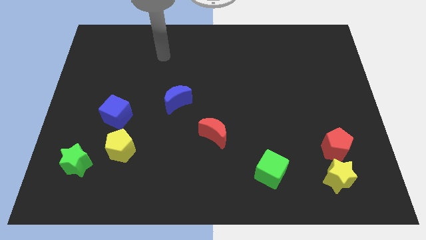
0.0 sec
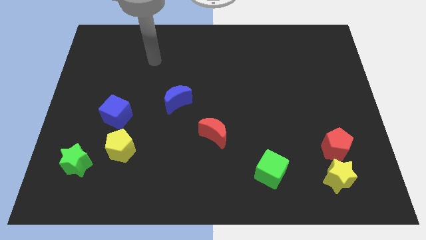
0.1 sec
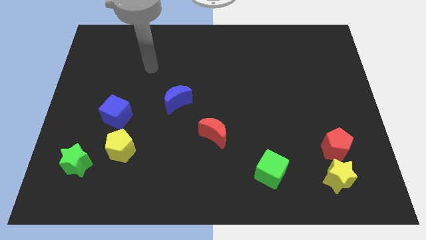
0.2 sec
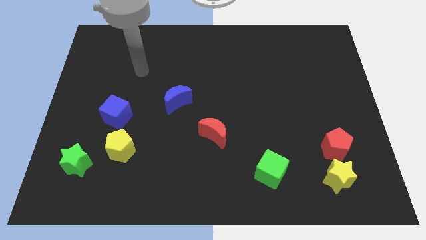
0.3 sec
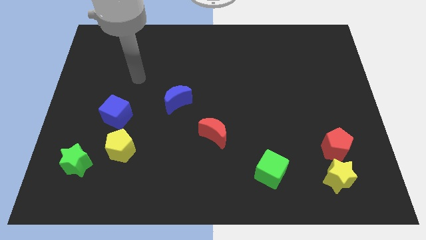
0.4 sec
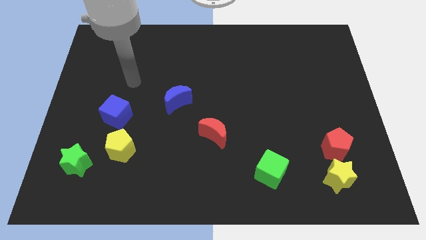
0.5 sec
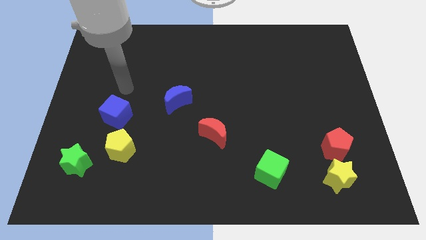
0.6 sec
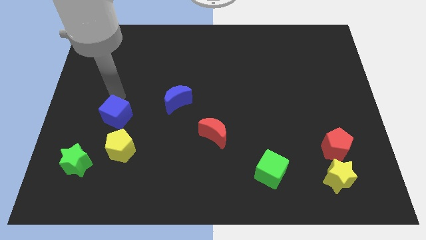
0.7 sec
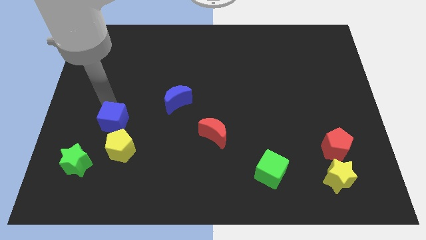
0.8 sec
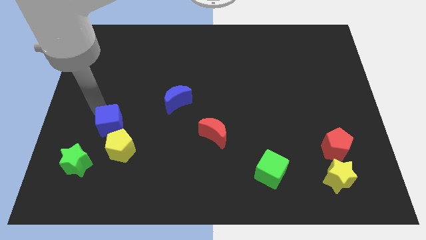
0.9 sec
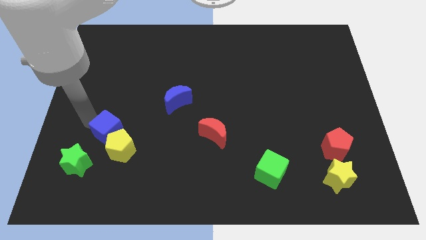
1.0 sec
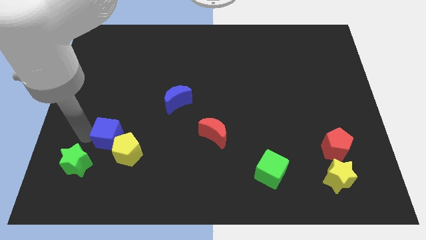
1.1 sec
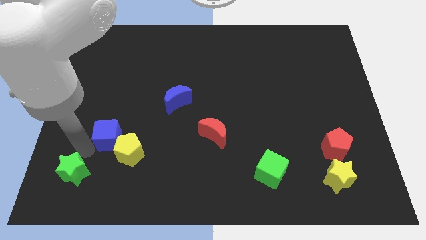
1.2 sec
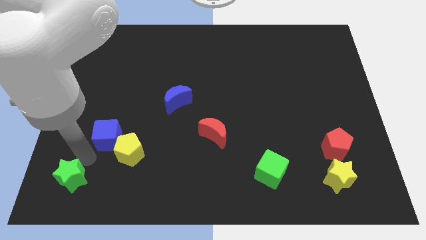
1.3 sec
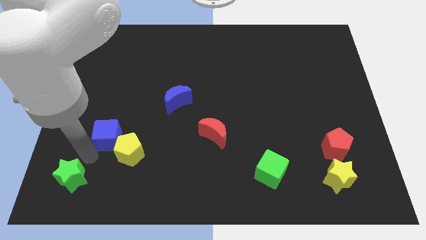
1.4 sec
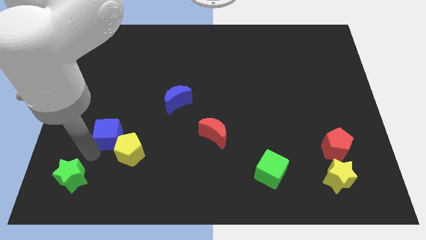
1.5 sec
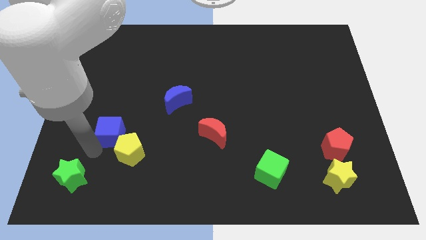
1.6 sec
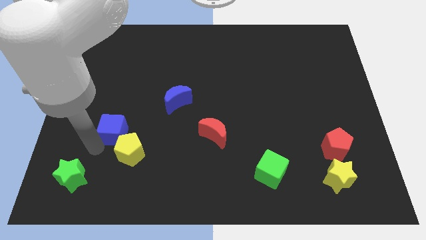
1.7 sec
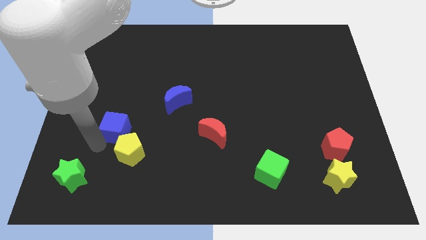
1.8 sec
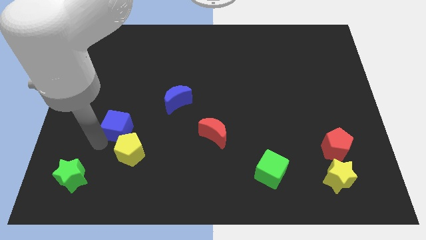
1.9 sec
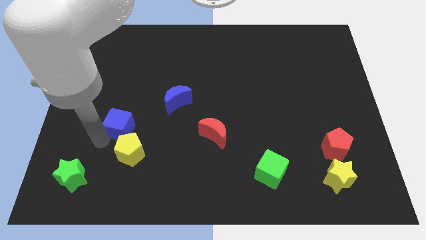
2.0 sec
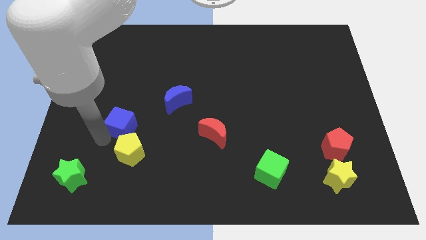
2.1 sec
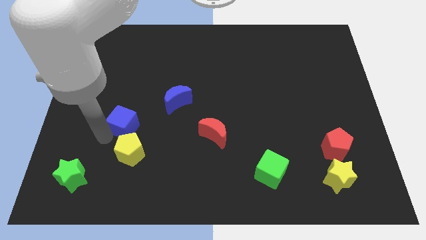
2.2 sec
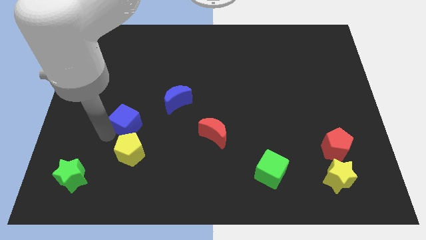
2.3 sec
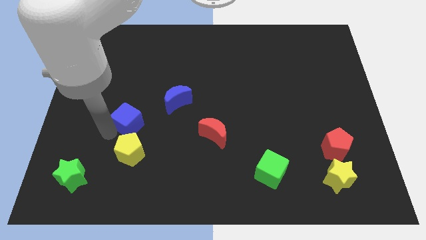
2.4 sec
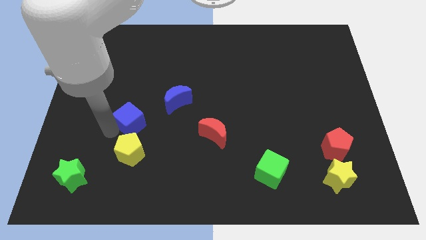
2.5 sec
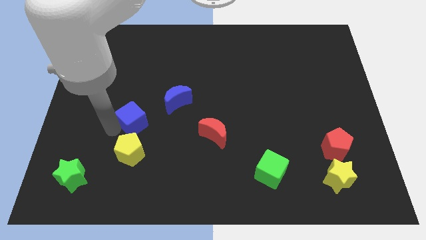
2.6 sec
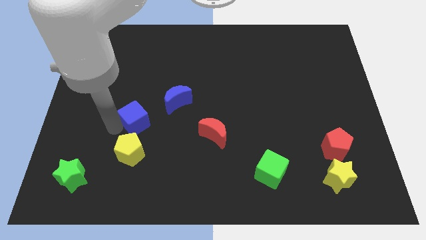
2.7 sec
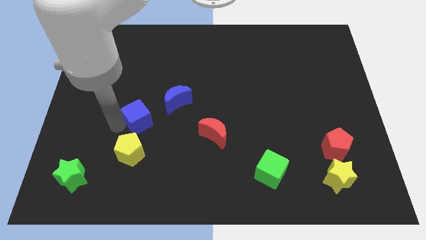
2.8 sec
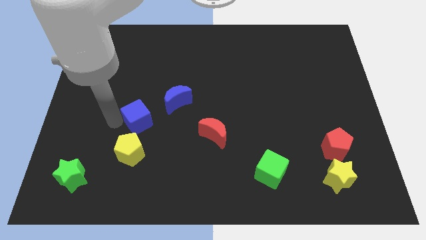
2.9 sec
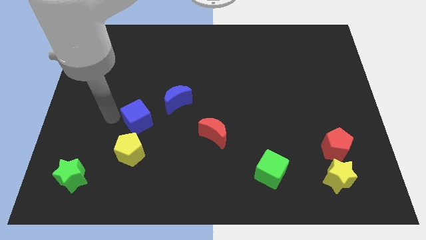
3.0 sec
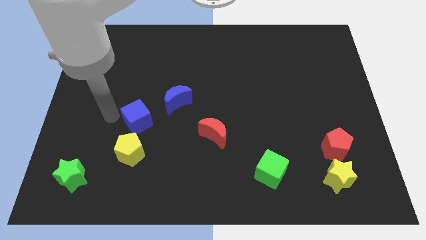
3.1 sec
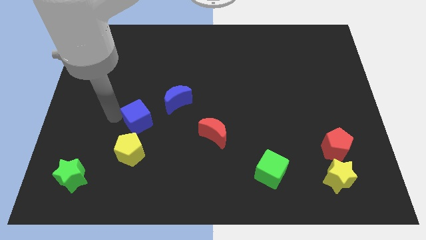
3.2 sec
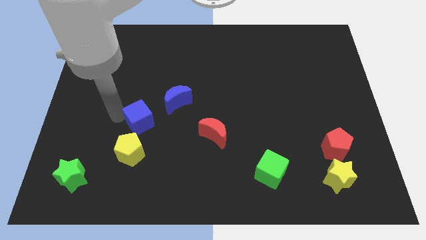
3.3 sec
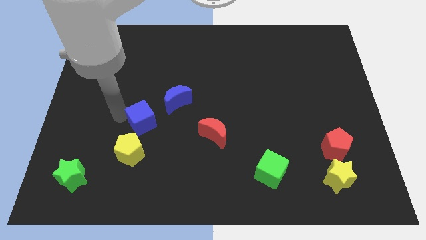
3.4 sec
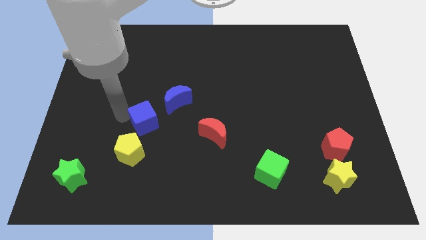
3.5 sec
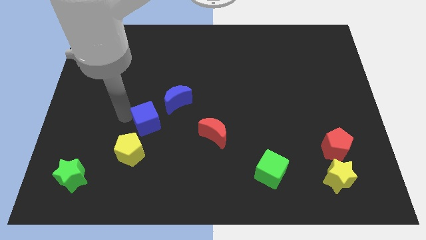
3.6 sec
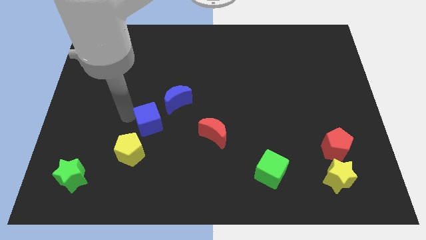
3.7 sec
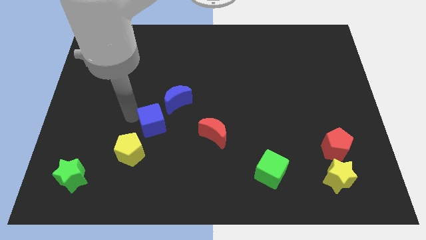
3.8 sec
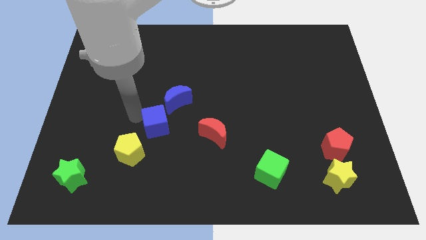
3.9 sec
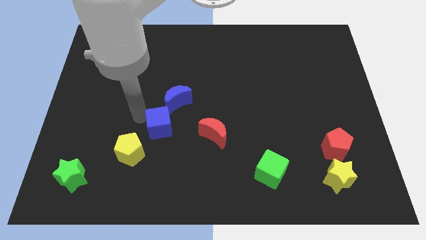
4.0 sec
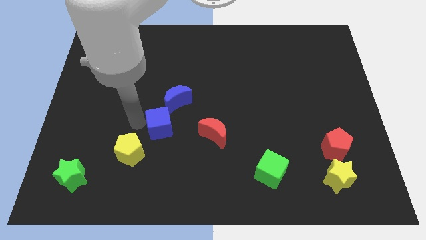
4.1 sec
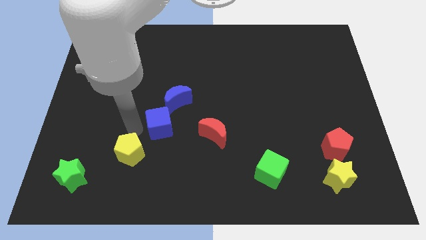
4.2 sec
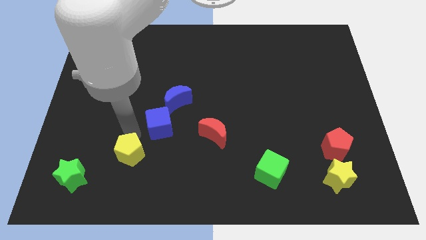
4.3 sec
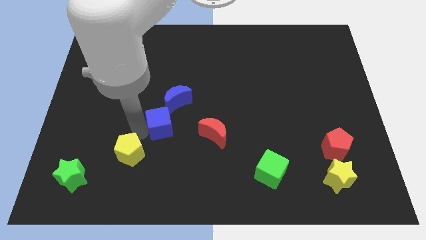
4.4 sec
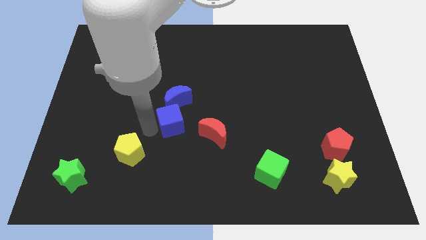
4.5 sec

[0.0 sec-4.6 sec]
put the blue cube diagonally up and to the left of the red moon

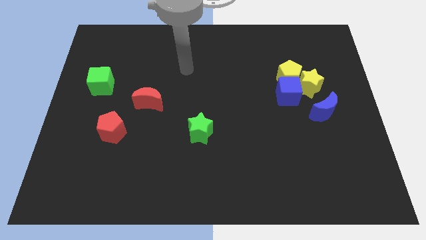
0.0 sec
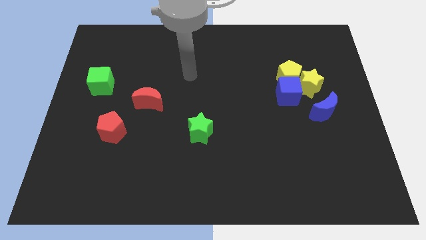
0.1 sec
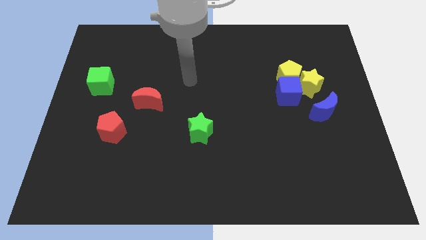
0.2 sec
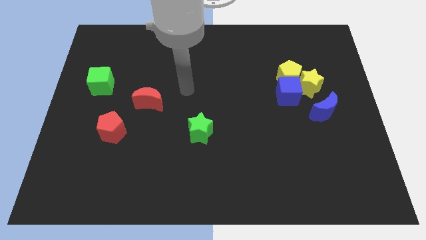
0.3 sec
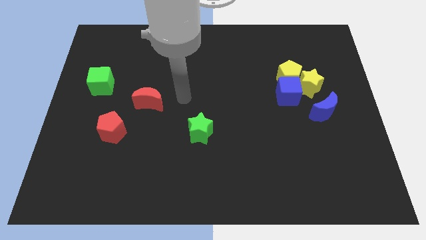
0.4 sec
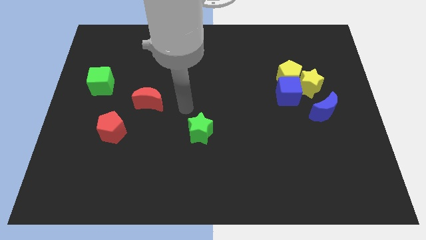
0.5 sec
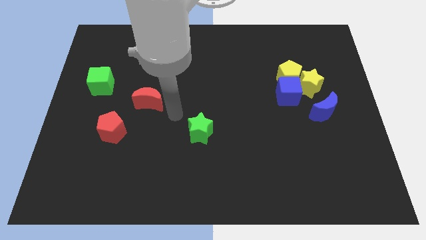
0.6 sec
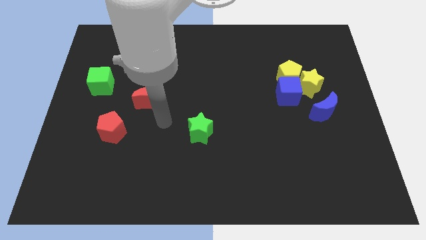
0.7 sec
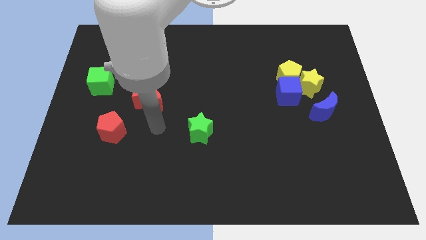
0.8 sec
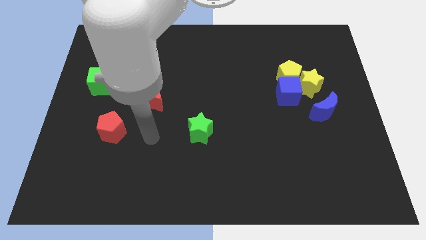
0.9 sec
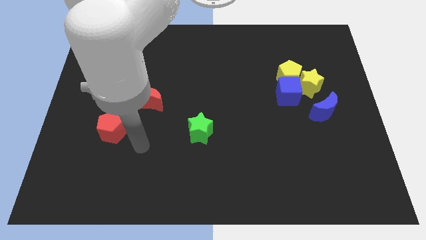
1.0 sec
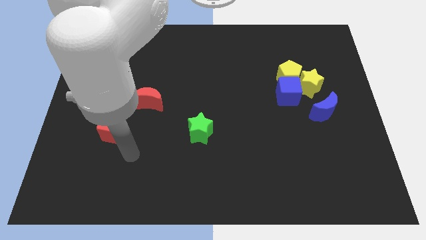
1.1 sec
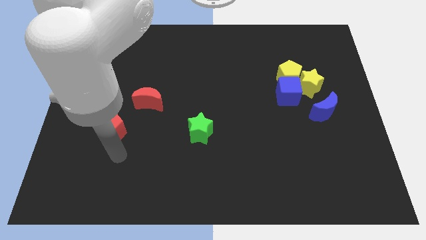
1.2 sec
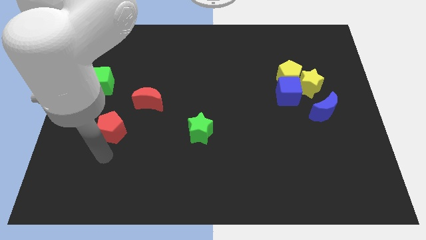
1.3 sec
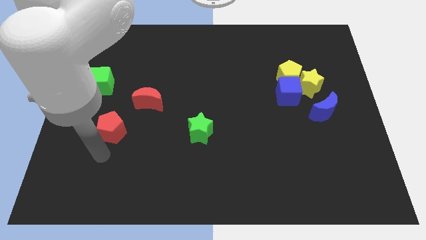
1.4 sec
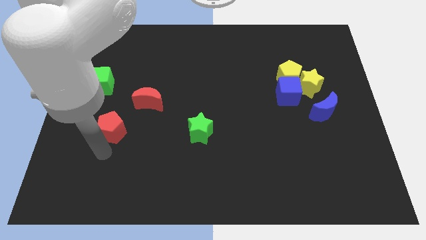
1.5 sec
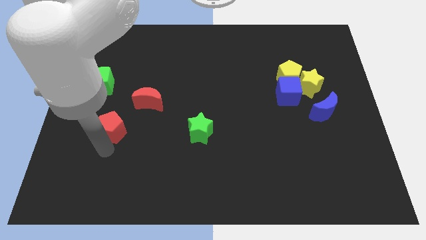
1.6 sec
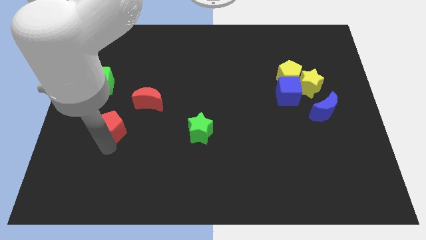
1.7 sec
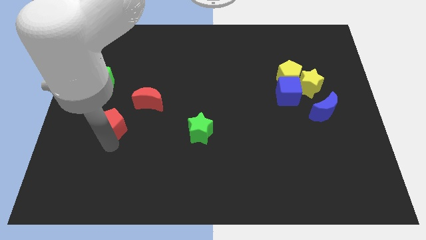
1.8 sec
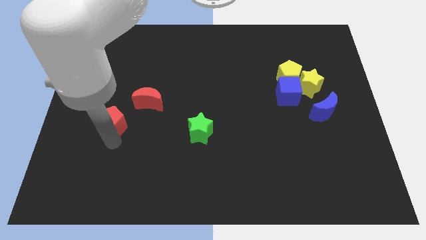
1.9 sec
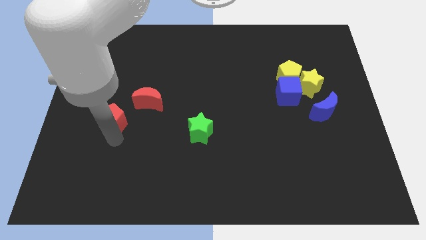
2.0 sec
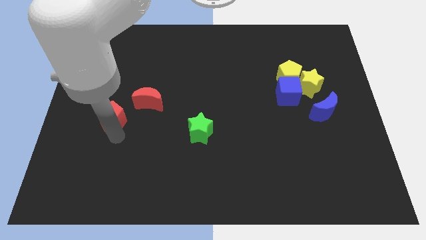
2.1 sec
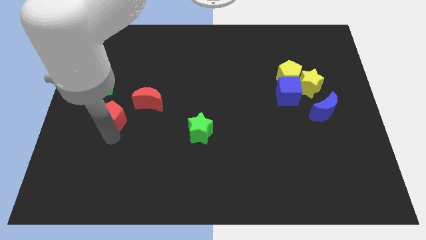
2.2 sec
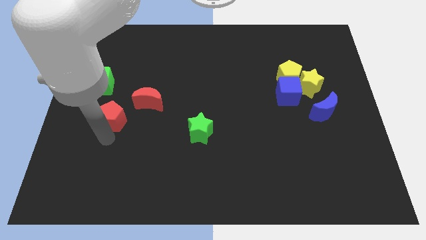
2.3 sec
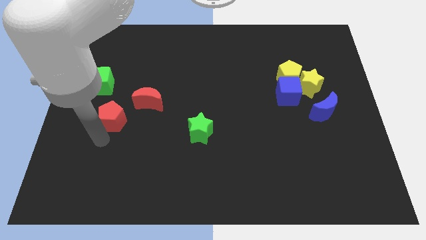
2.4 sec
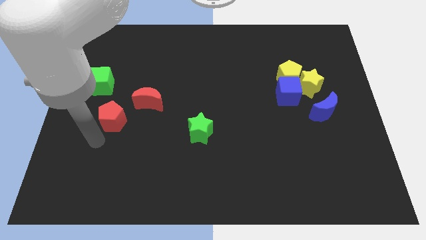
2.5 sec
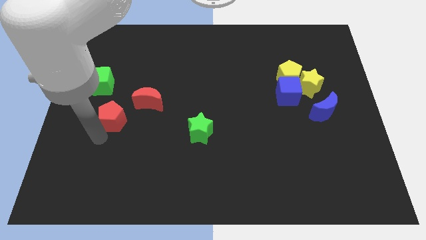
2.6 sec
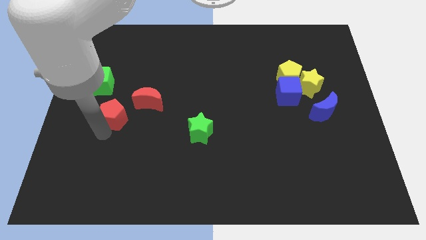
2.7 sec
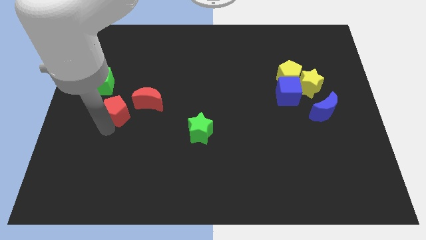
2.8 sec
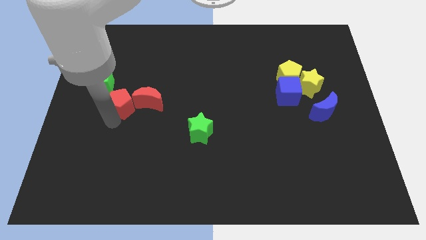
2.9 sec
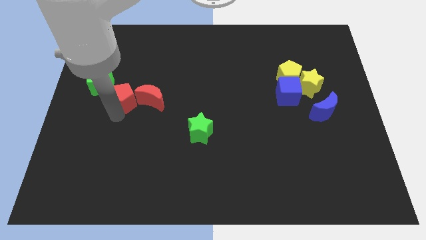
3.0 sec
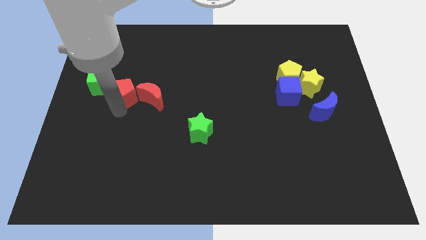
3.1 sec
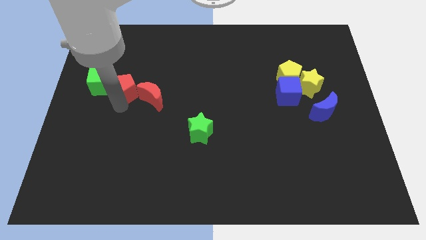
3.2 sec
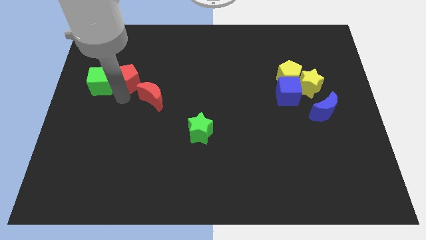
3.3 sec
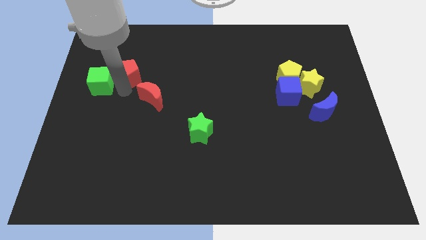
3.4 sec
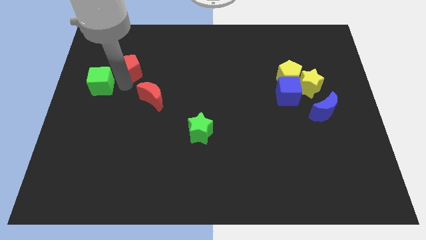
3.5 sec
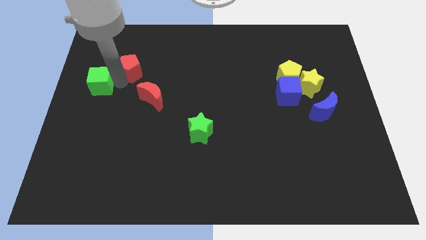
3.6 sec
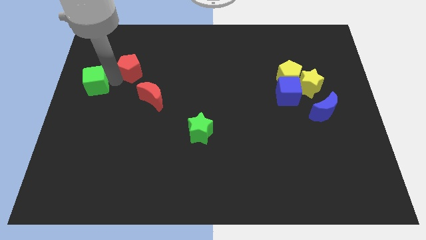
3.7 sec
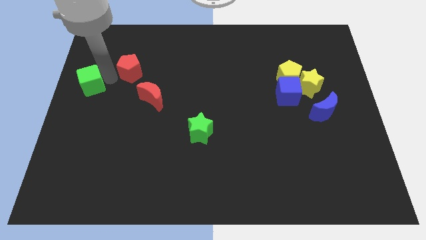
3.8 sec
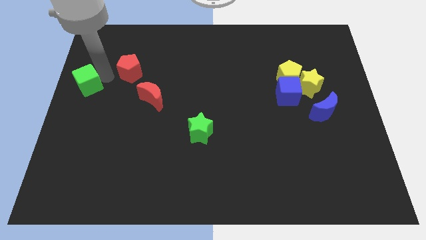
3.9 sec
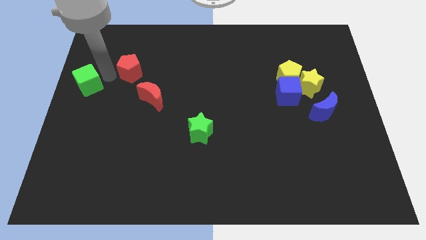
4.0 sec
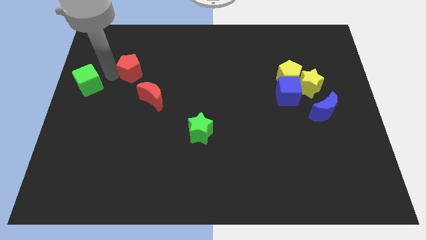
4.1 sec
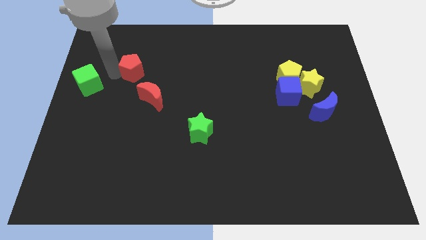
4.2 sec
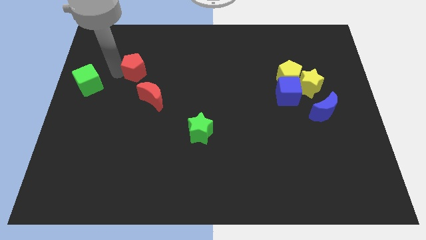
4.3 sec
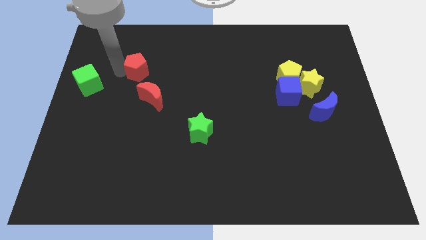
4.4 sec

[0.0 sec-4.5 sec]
push the red pentagon above the red moon
